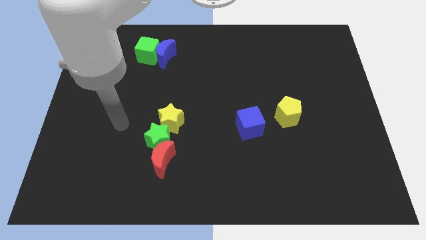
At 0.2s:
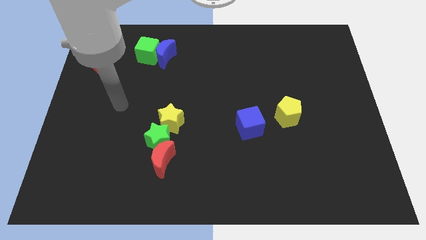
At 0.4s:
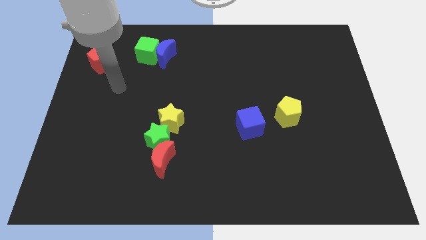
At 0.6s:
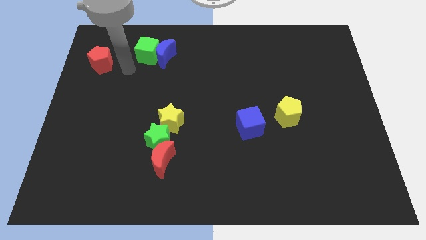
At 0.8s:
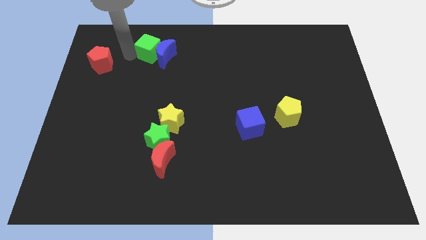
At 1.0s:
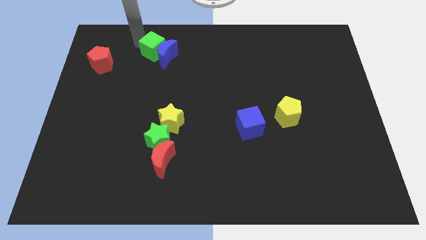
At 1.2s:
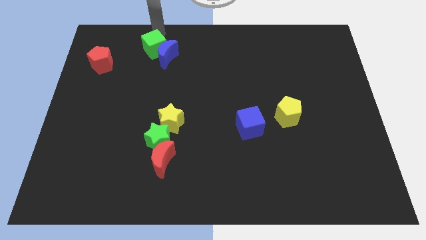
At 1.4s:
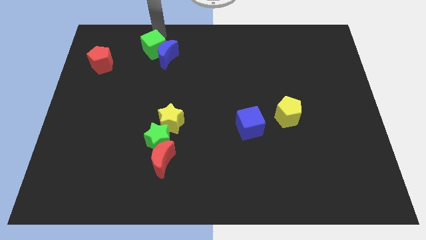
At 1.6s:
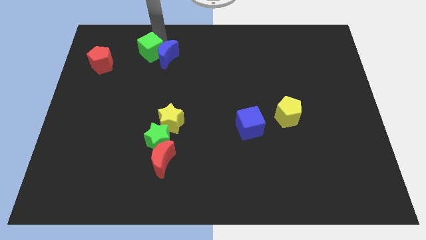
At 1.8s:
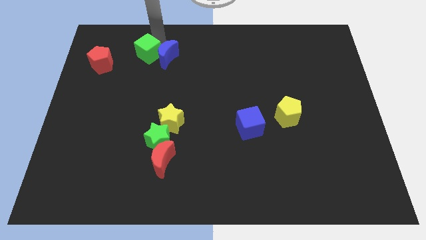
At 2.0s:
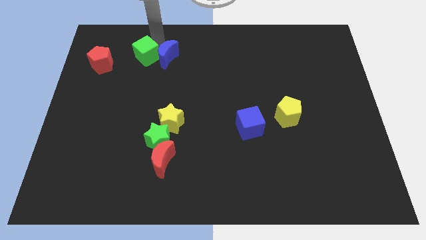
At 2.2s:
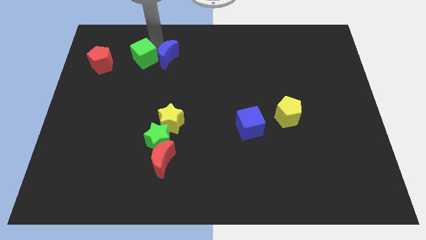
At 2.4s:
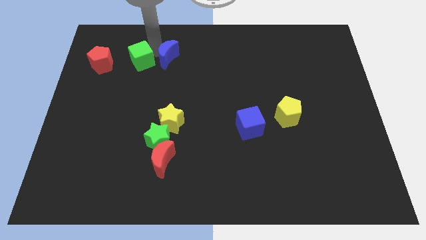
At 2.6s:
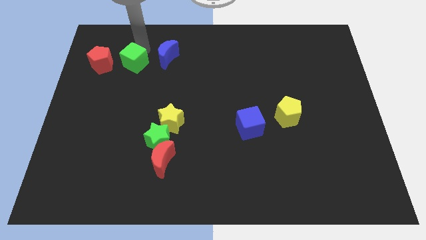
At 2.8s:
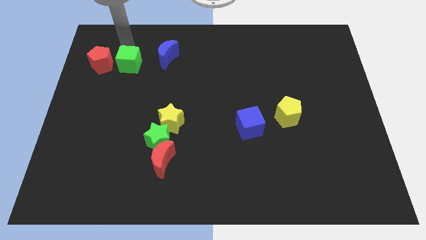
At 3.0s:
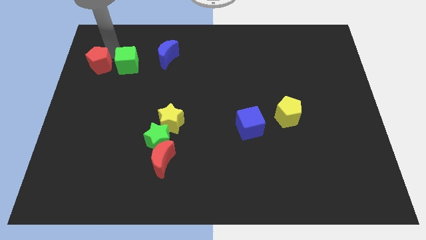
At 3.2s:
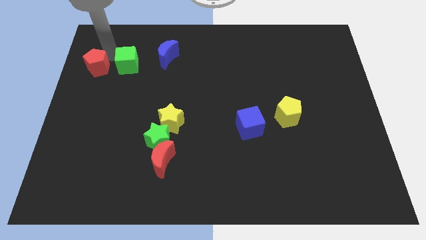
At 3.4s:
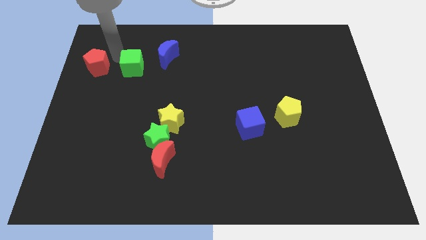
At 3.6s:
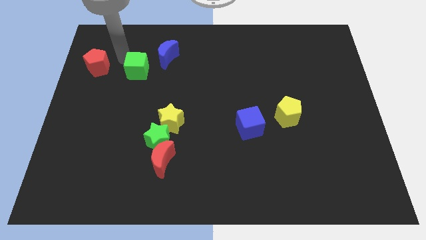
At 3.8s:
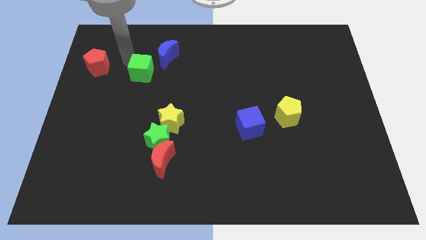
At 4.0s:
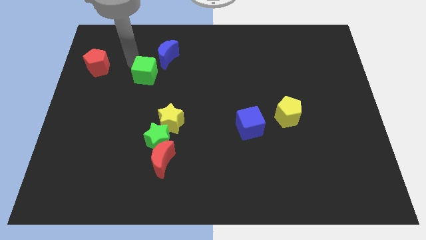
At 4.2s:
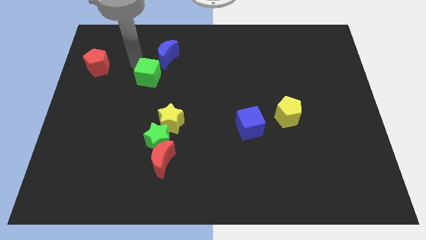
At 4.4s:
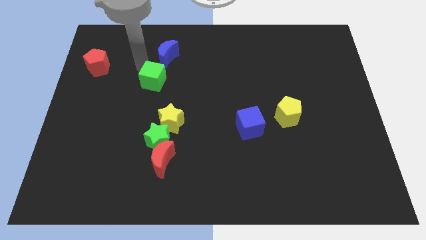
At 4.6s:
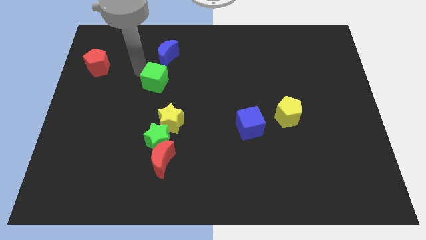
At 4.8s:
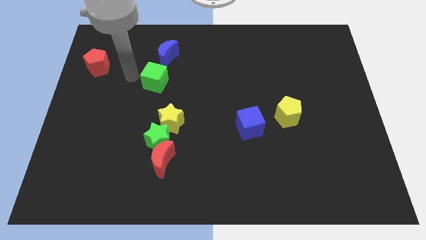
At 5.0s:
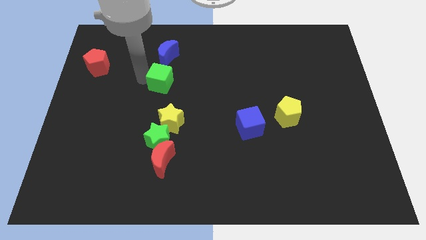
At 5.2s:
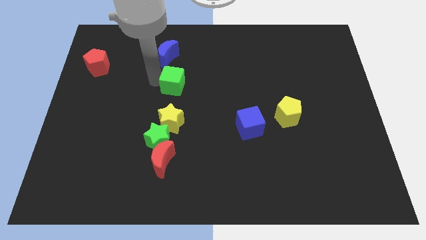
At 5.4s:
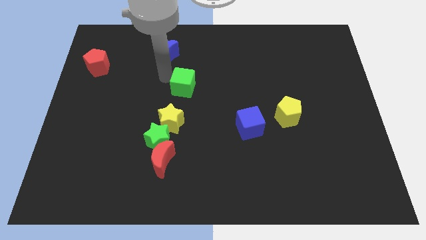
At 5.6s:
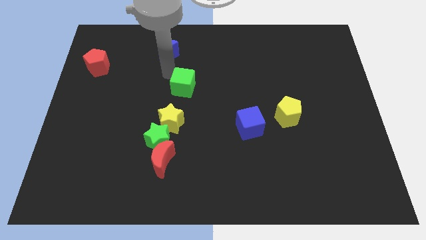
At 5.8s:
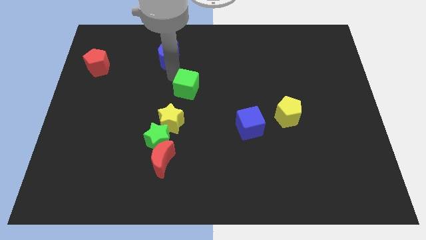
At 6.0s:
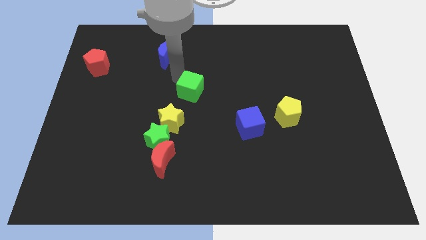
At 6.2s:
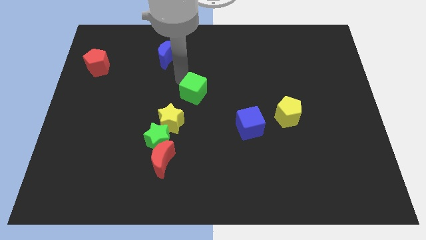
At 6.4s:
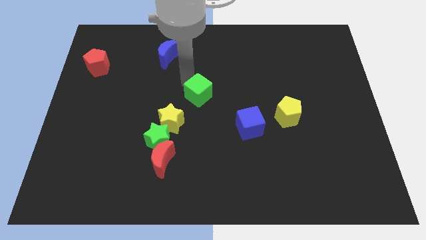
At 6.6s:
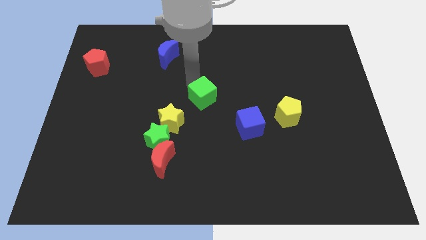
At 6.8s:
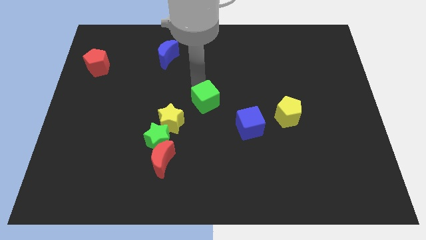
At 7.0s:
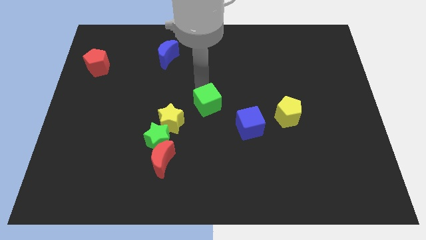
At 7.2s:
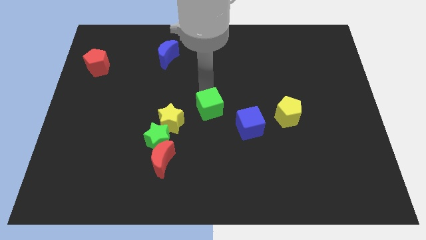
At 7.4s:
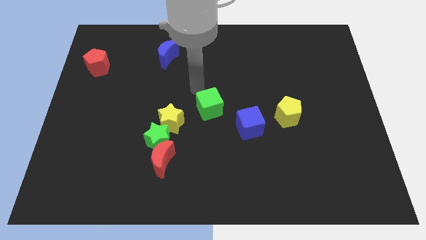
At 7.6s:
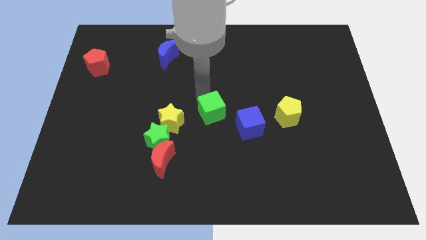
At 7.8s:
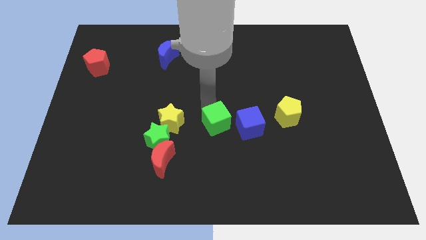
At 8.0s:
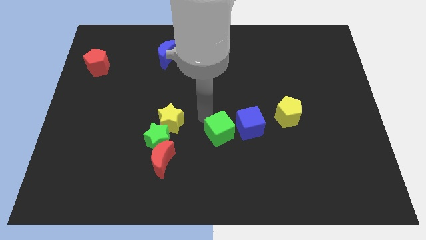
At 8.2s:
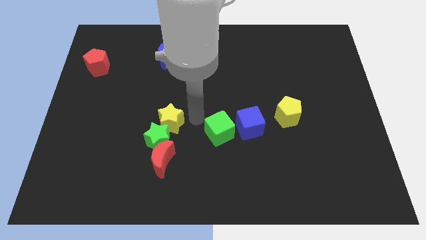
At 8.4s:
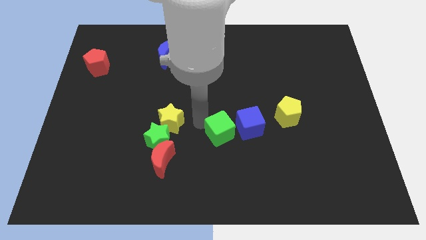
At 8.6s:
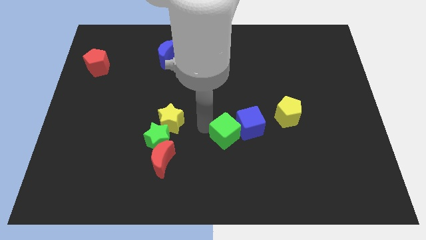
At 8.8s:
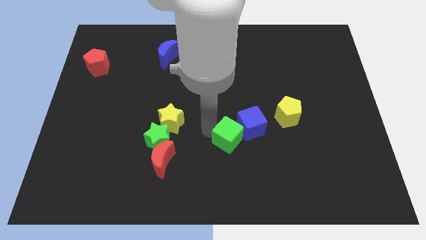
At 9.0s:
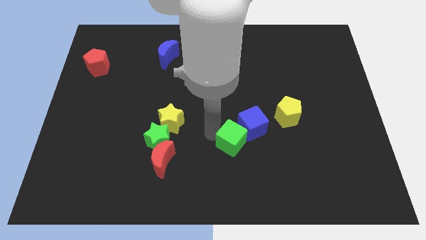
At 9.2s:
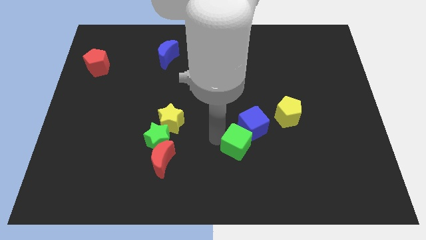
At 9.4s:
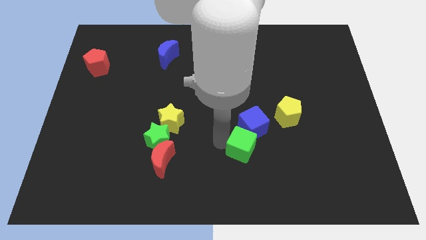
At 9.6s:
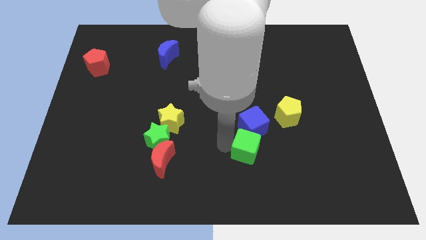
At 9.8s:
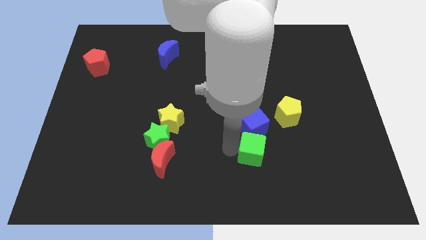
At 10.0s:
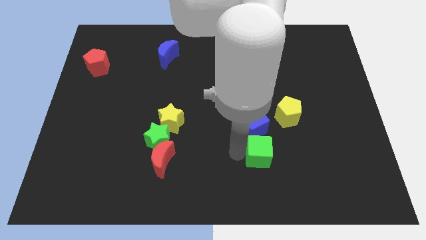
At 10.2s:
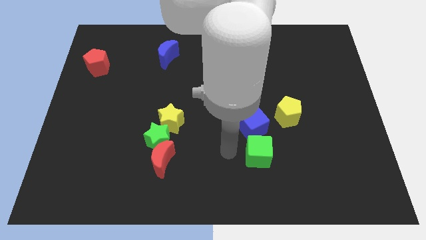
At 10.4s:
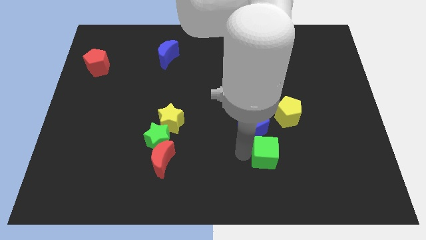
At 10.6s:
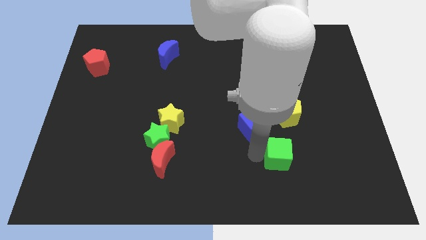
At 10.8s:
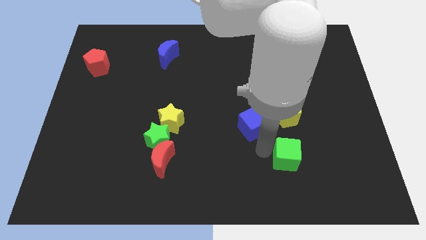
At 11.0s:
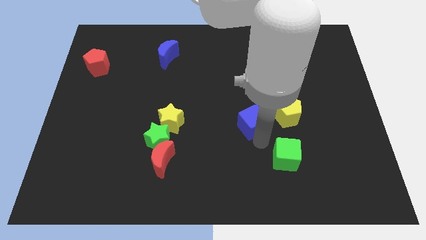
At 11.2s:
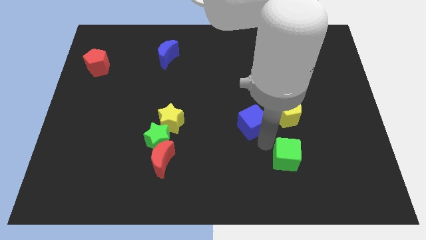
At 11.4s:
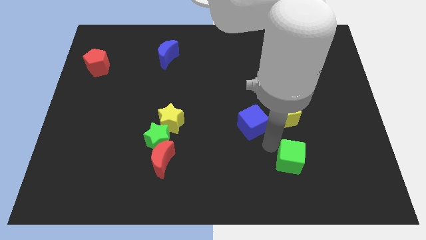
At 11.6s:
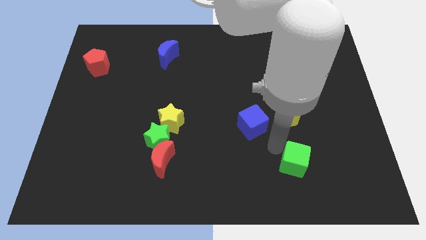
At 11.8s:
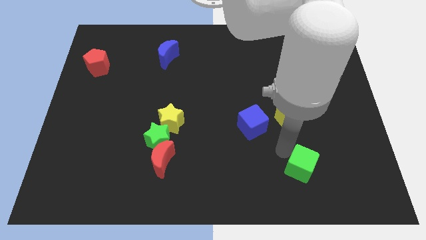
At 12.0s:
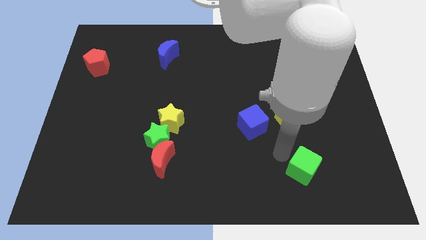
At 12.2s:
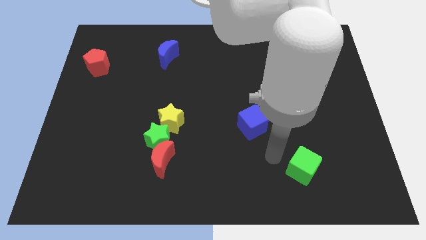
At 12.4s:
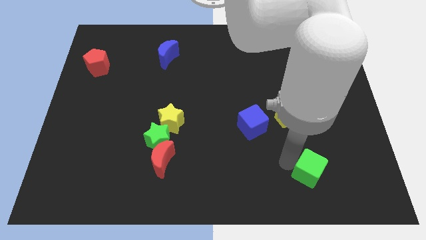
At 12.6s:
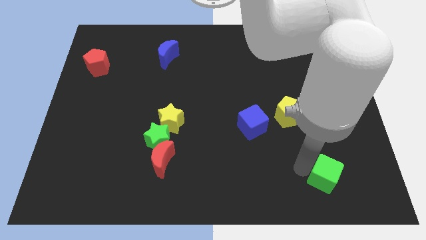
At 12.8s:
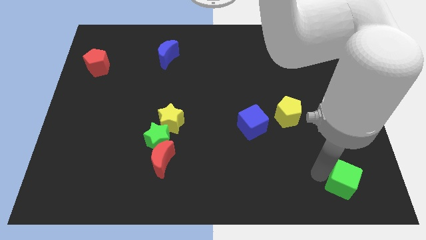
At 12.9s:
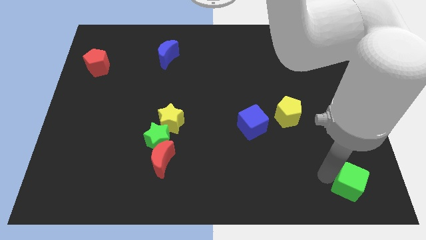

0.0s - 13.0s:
move the green cube to the bottom right corner
